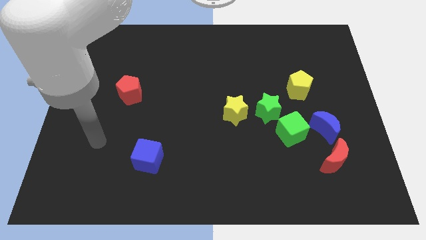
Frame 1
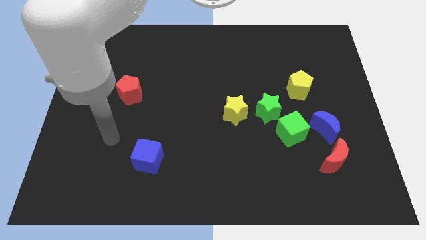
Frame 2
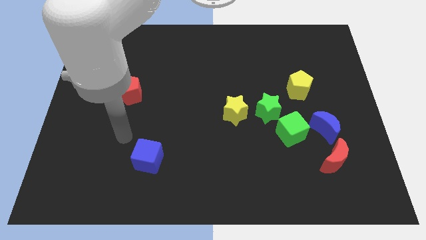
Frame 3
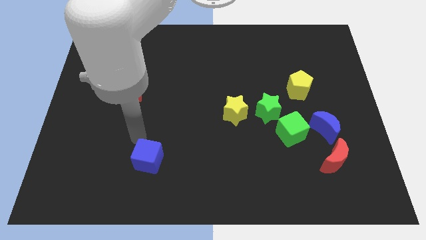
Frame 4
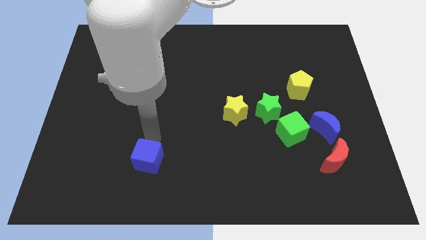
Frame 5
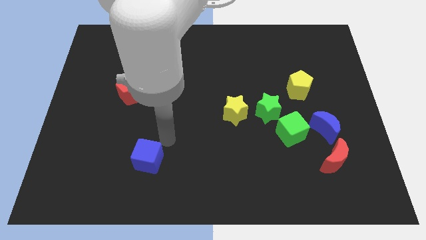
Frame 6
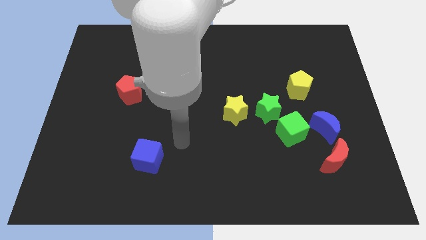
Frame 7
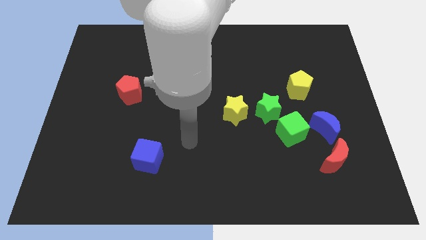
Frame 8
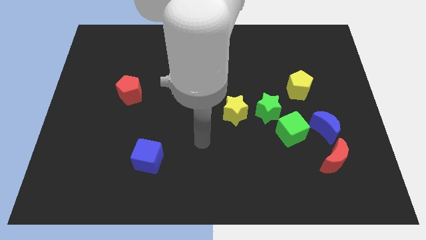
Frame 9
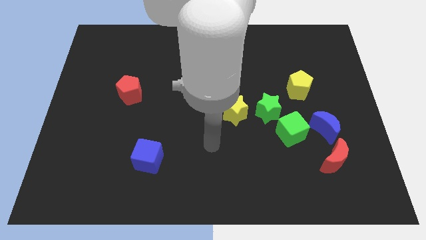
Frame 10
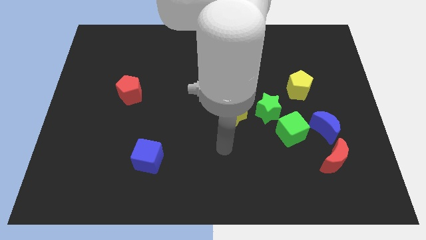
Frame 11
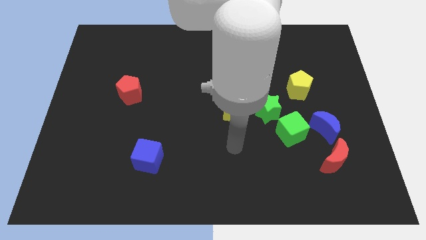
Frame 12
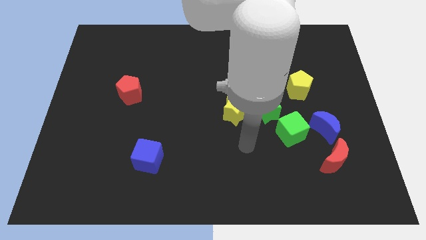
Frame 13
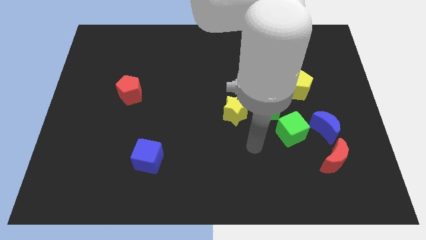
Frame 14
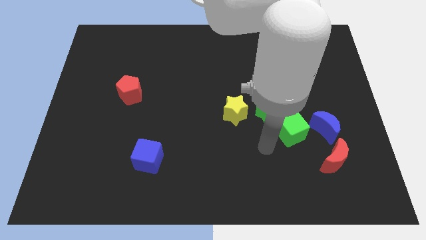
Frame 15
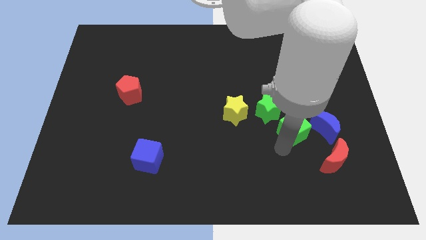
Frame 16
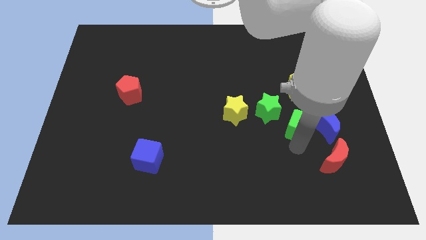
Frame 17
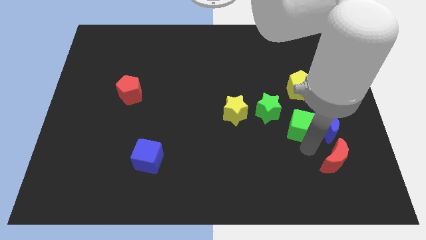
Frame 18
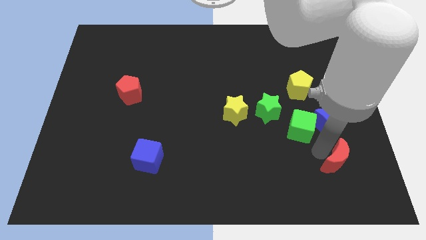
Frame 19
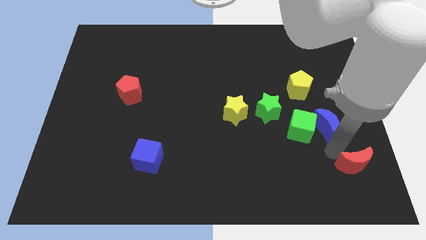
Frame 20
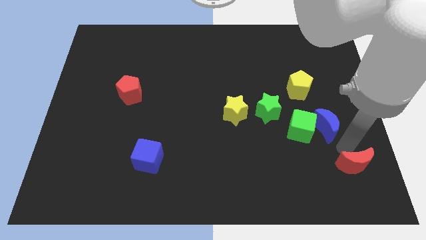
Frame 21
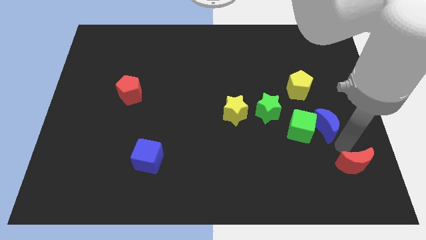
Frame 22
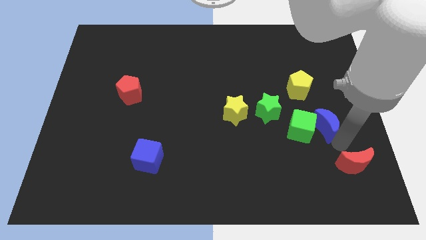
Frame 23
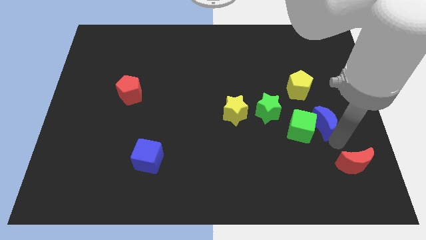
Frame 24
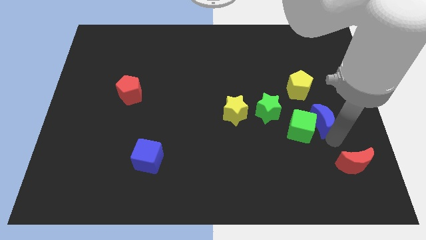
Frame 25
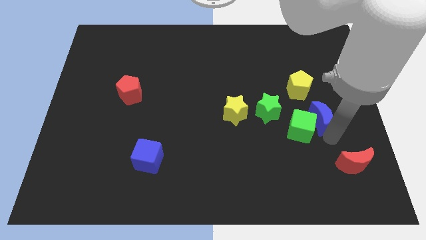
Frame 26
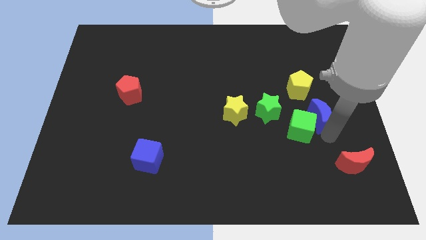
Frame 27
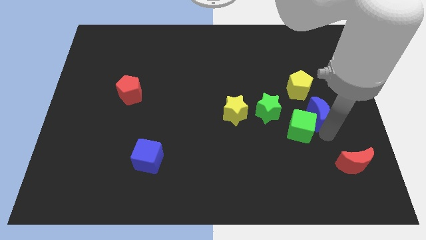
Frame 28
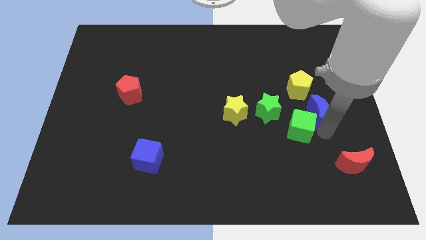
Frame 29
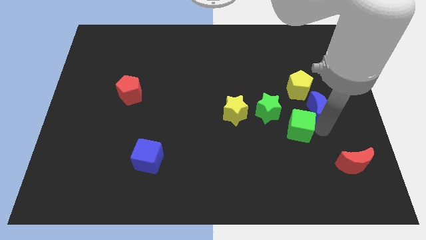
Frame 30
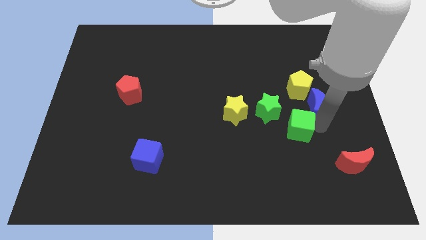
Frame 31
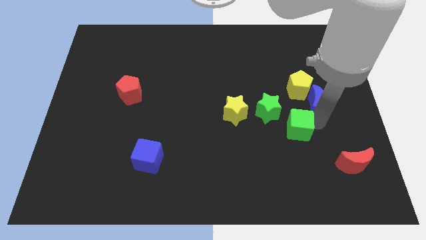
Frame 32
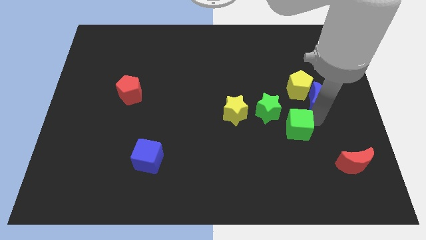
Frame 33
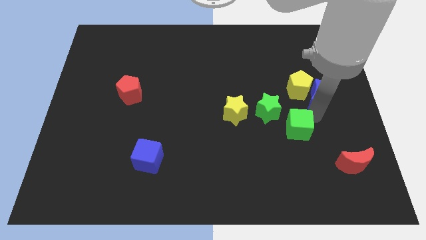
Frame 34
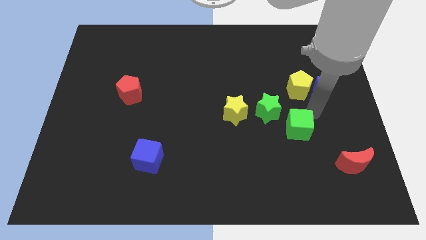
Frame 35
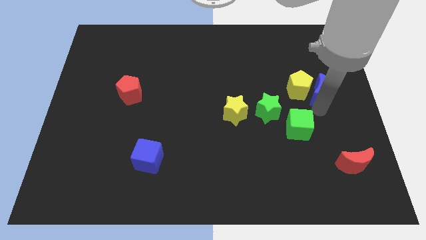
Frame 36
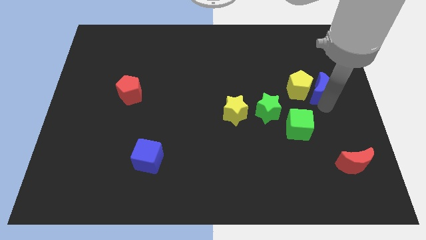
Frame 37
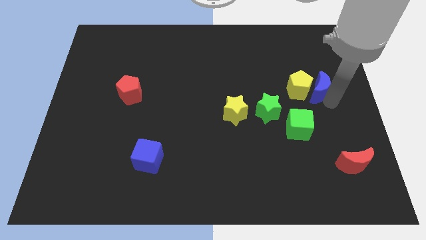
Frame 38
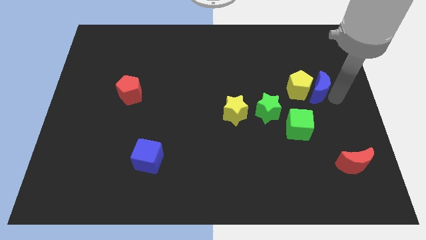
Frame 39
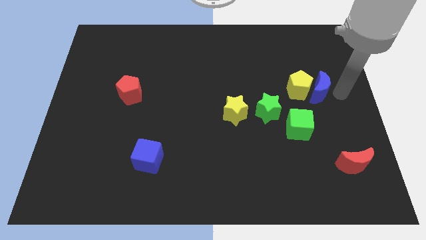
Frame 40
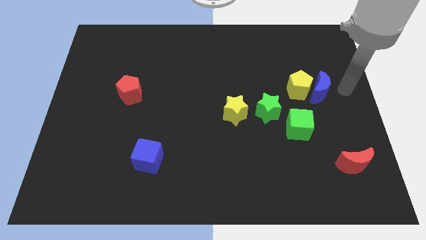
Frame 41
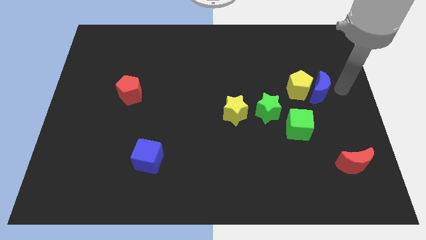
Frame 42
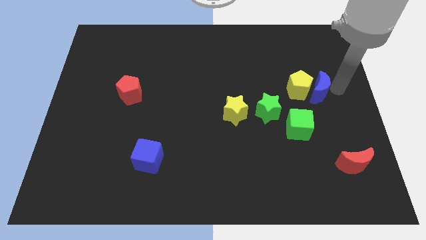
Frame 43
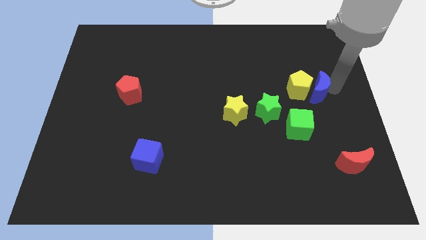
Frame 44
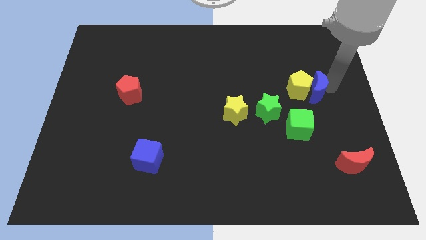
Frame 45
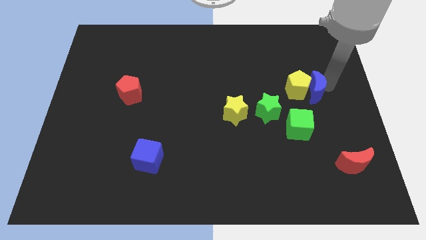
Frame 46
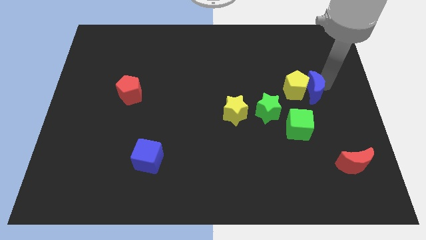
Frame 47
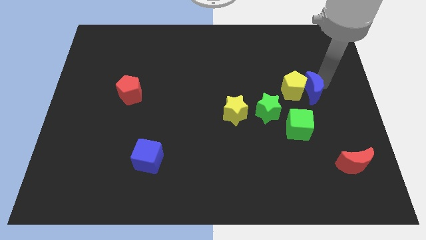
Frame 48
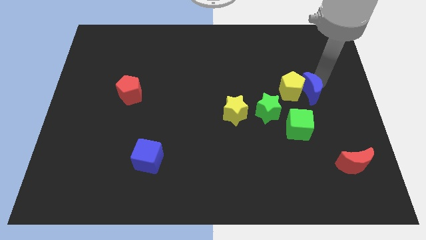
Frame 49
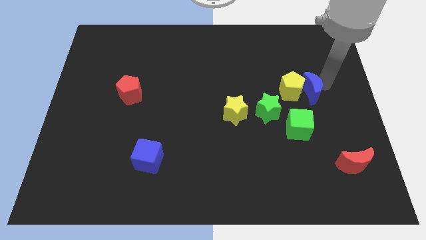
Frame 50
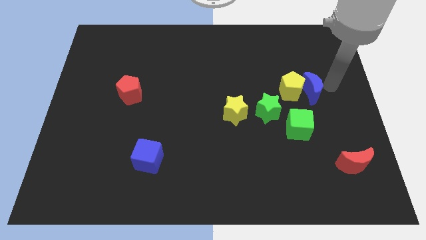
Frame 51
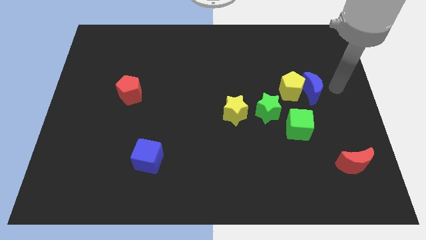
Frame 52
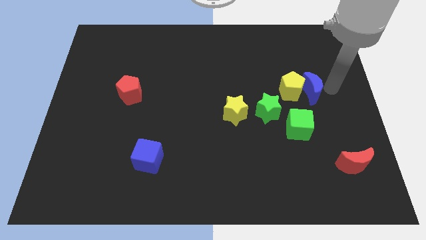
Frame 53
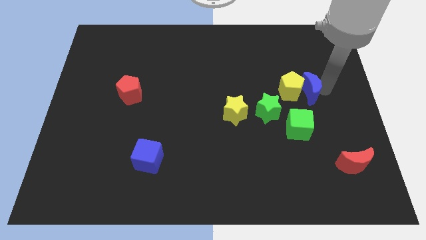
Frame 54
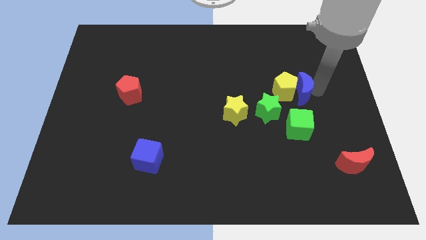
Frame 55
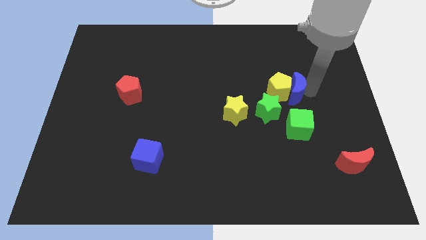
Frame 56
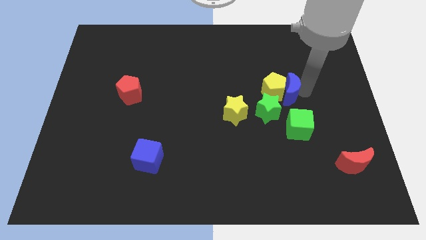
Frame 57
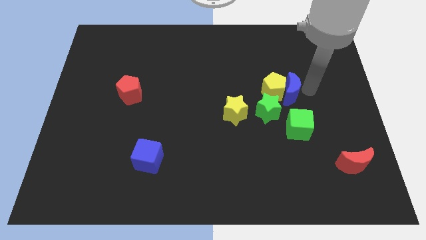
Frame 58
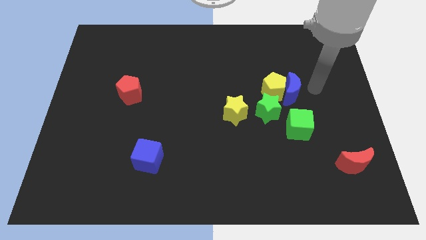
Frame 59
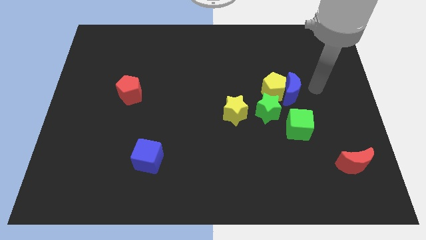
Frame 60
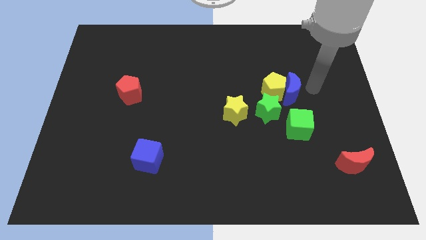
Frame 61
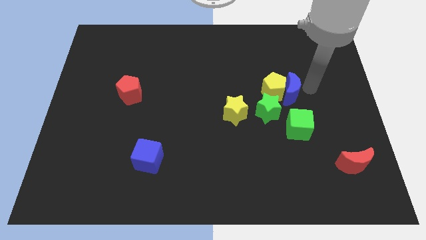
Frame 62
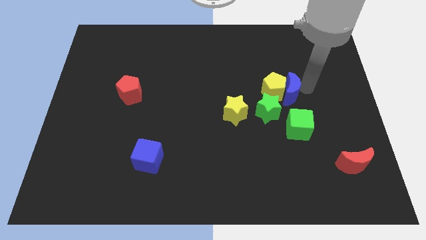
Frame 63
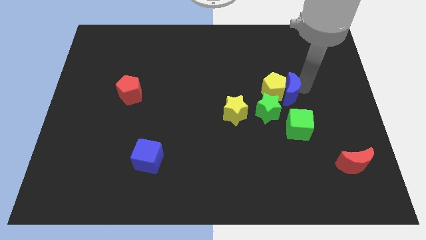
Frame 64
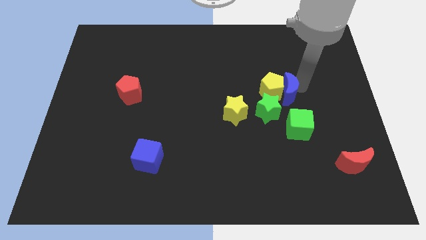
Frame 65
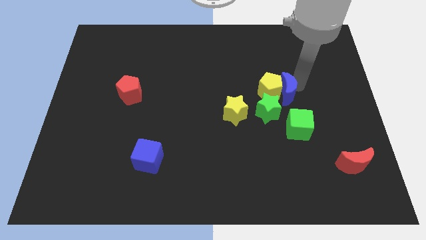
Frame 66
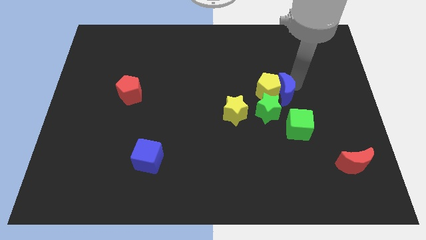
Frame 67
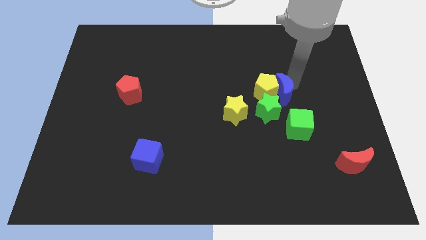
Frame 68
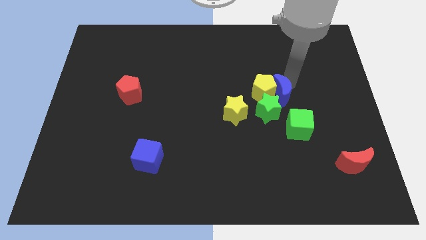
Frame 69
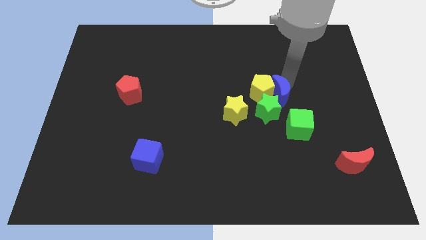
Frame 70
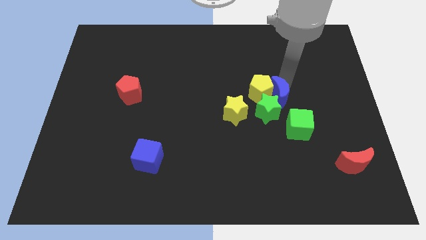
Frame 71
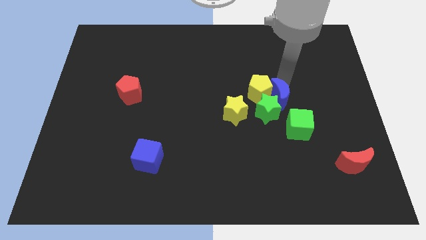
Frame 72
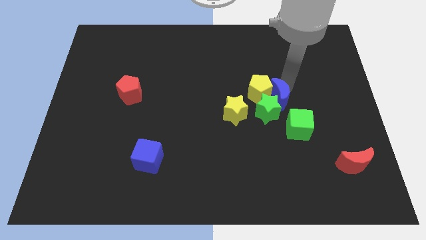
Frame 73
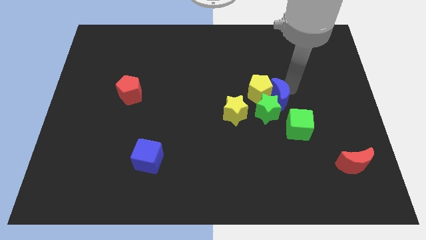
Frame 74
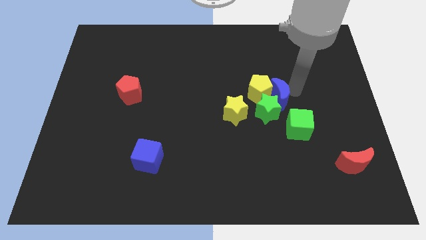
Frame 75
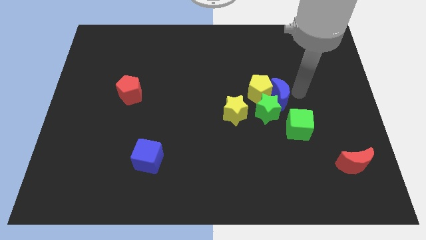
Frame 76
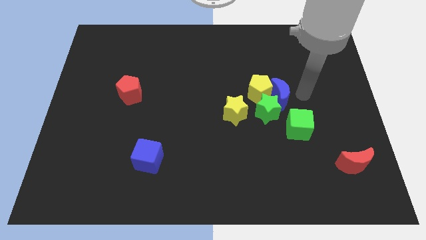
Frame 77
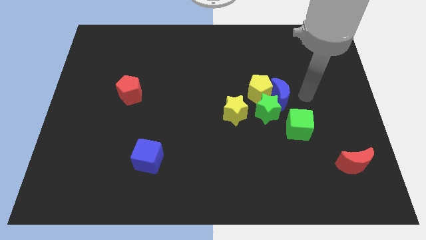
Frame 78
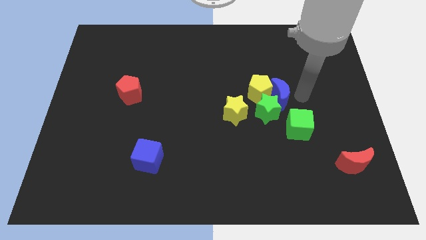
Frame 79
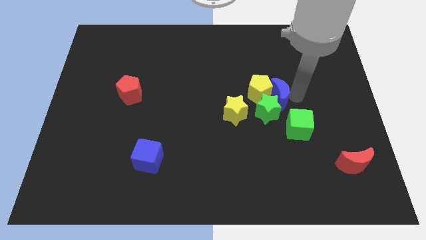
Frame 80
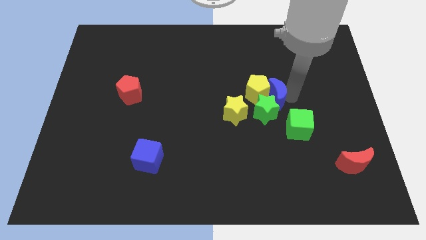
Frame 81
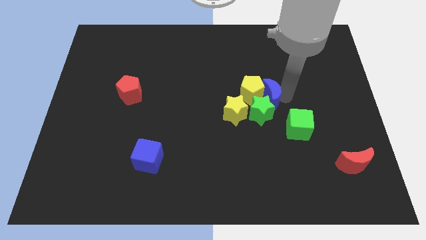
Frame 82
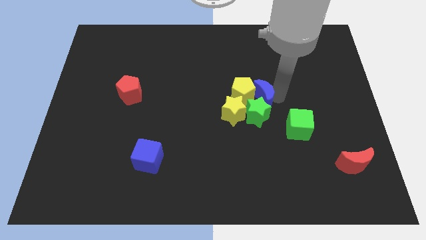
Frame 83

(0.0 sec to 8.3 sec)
push the blue moon to the middle
